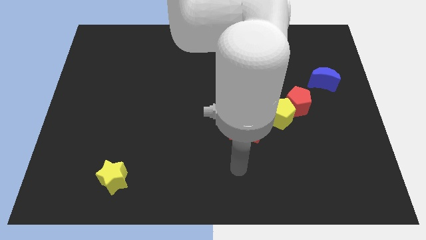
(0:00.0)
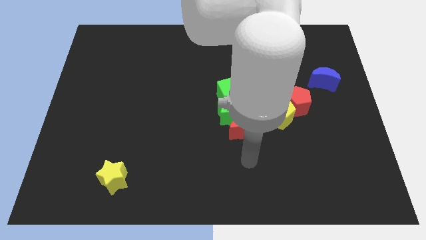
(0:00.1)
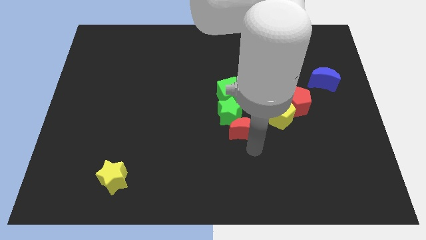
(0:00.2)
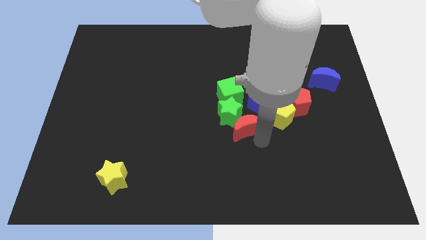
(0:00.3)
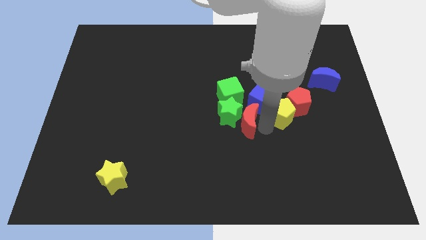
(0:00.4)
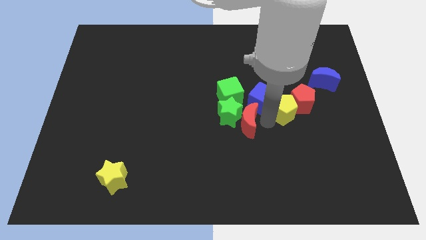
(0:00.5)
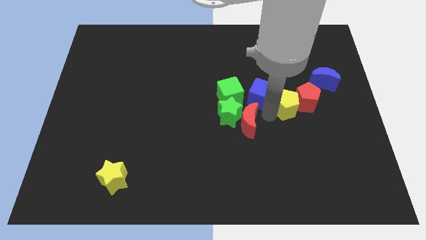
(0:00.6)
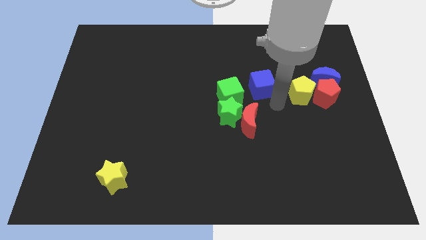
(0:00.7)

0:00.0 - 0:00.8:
move the red pentagon away from the yellow pentagon and blue cube

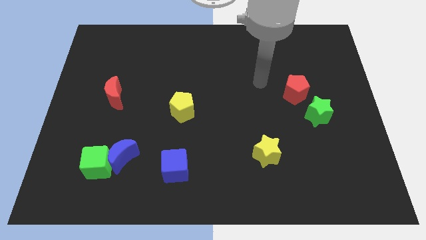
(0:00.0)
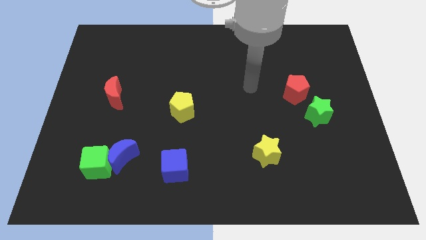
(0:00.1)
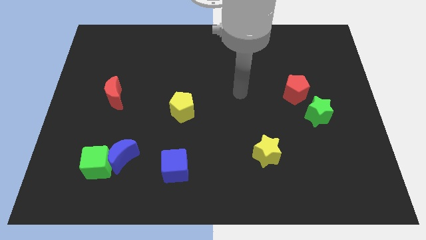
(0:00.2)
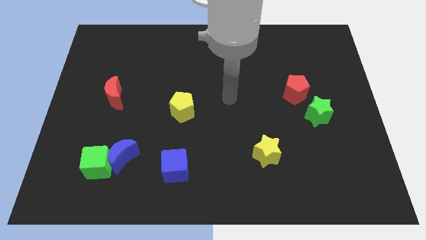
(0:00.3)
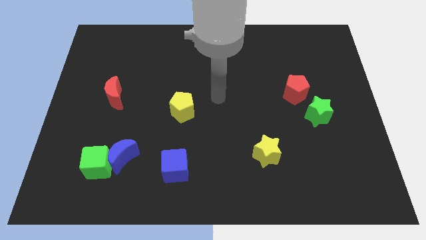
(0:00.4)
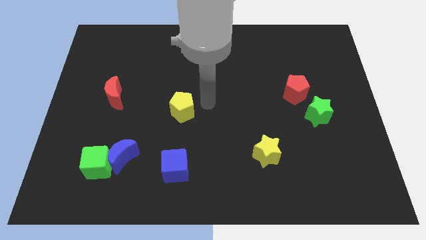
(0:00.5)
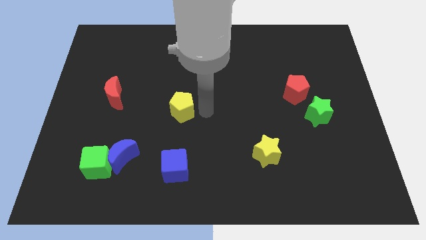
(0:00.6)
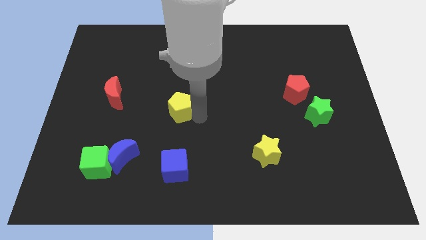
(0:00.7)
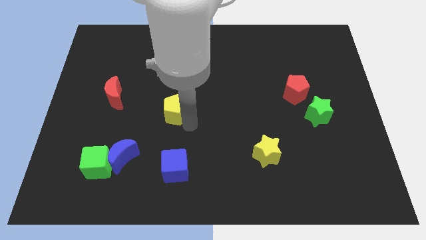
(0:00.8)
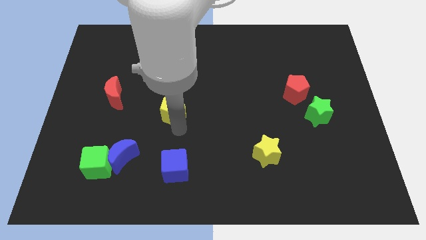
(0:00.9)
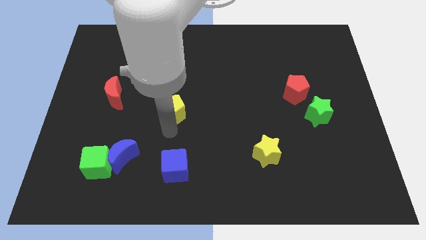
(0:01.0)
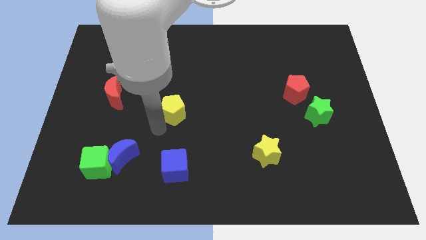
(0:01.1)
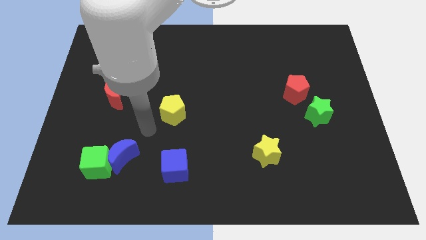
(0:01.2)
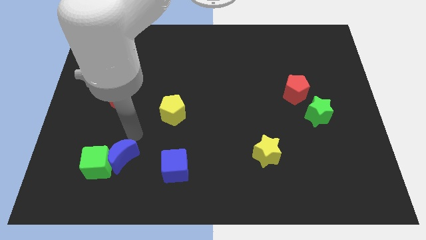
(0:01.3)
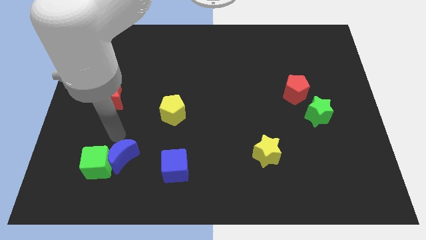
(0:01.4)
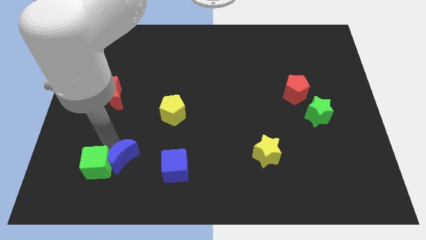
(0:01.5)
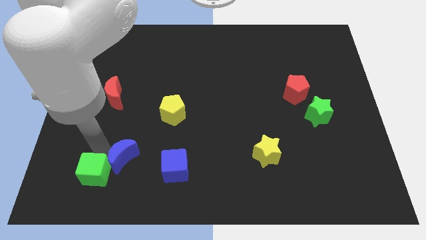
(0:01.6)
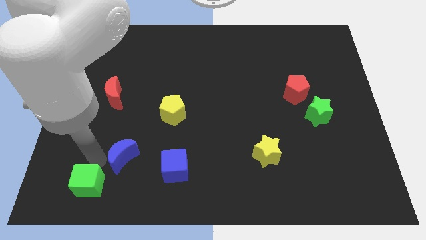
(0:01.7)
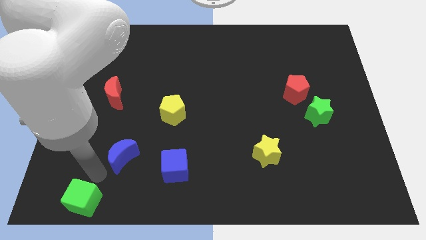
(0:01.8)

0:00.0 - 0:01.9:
separate the blue moon from the green cube

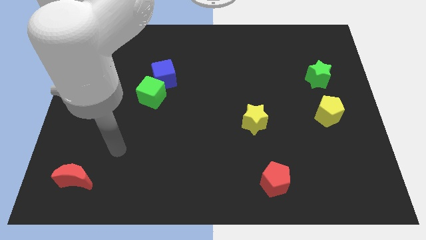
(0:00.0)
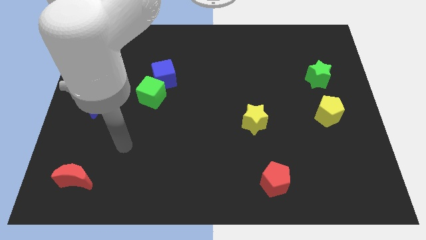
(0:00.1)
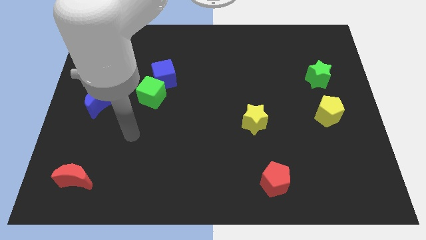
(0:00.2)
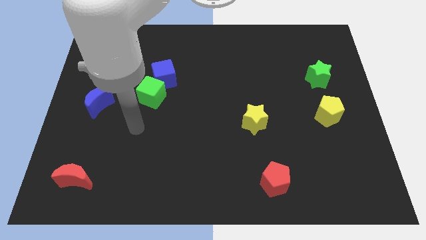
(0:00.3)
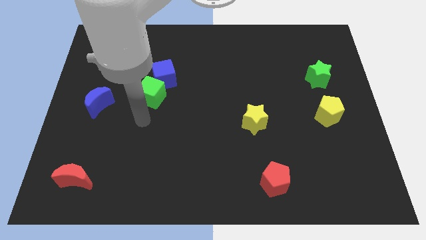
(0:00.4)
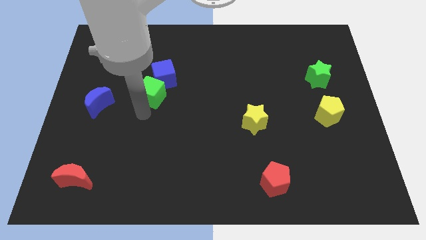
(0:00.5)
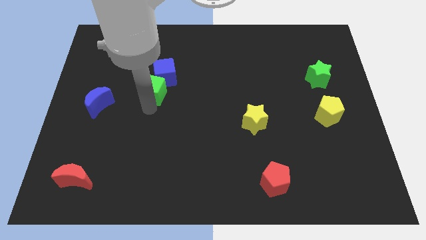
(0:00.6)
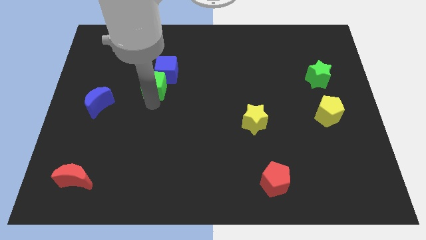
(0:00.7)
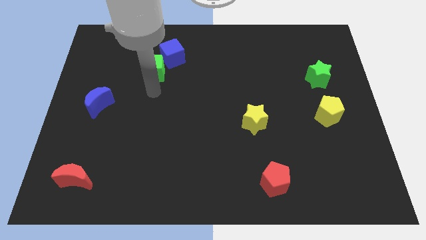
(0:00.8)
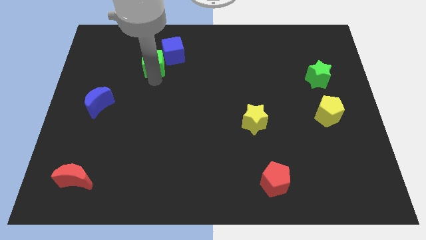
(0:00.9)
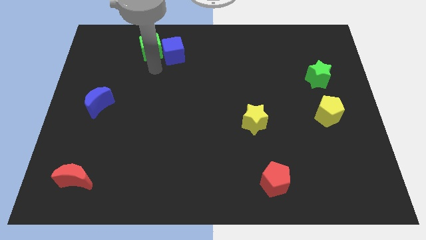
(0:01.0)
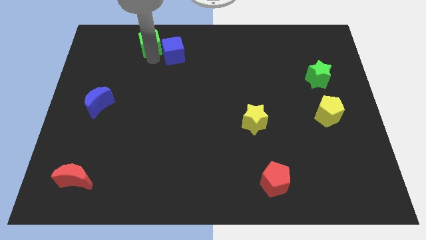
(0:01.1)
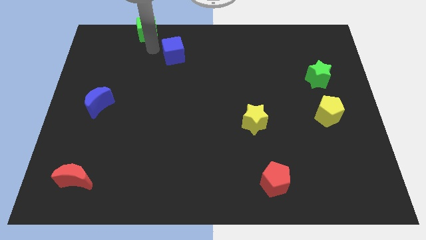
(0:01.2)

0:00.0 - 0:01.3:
pull the blue cube apart from the green cube

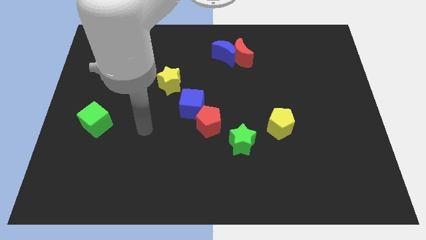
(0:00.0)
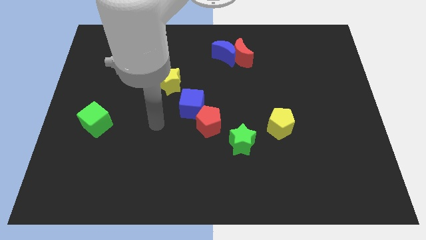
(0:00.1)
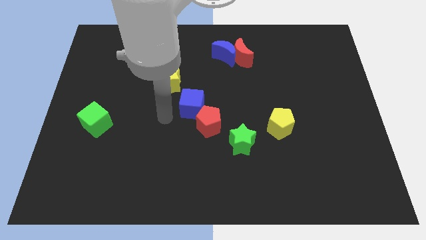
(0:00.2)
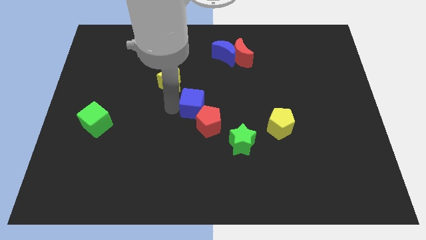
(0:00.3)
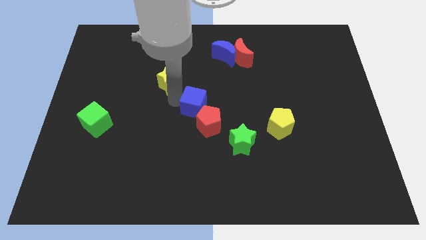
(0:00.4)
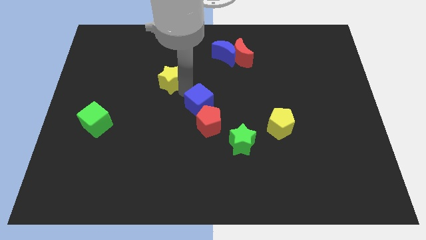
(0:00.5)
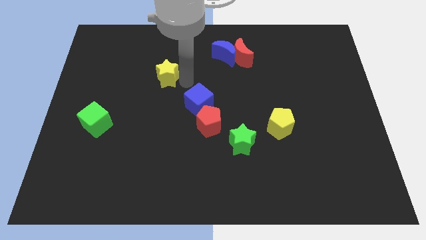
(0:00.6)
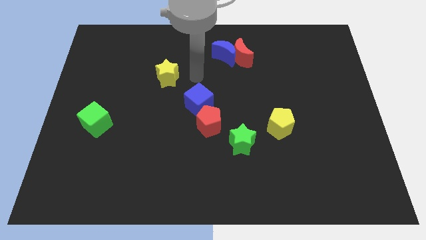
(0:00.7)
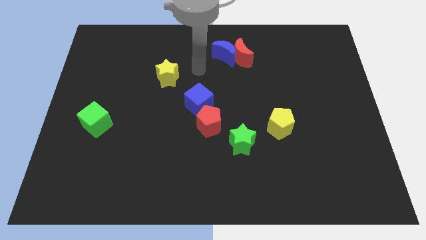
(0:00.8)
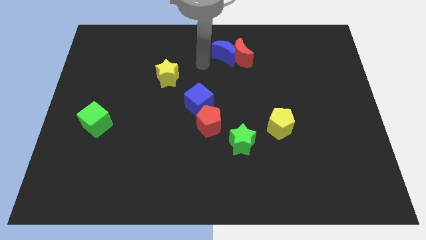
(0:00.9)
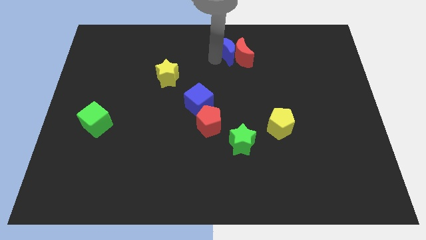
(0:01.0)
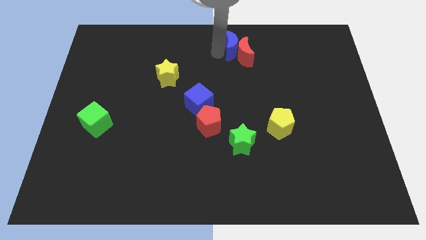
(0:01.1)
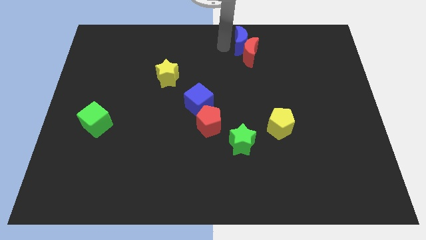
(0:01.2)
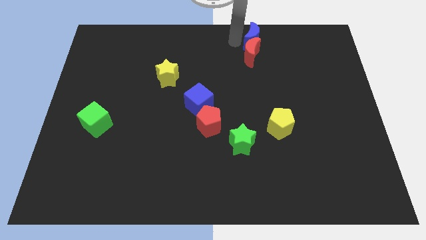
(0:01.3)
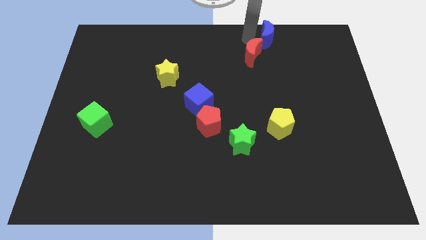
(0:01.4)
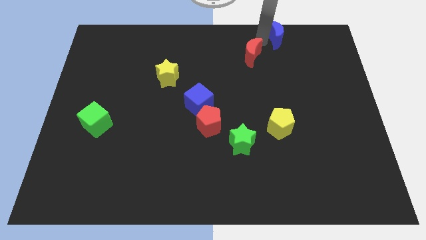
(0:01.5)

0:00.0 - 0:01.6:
separate the red moon from the blue moon

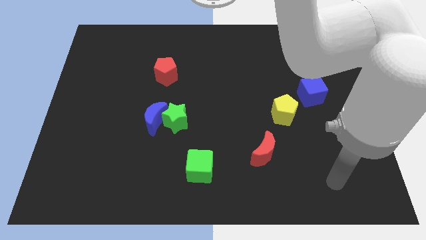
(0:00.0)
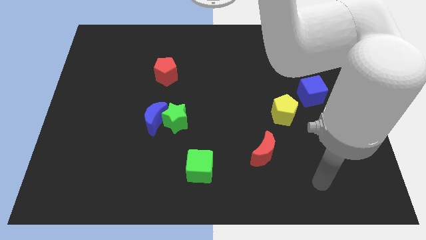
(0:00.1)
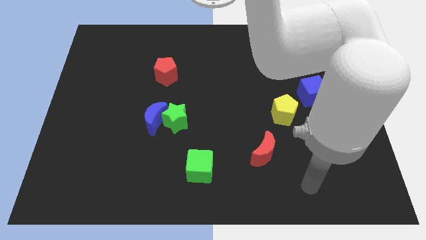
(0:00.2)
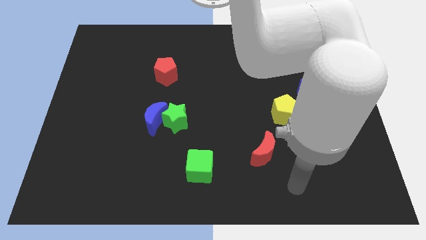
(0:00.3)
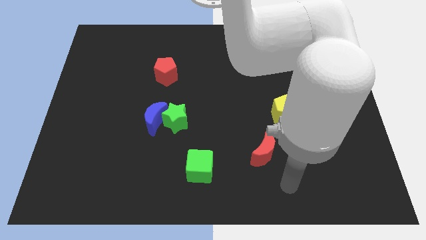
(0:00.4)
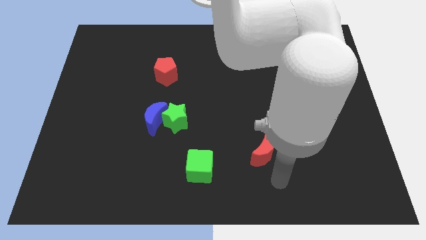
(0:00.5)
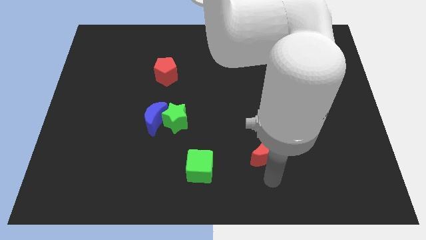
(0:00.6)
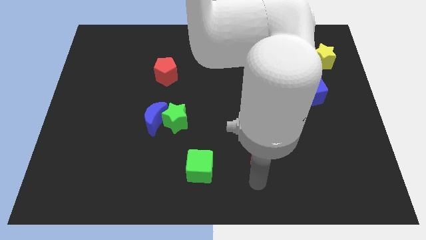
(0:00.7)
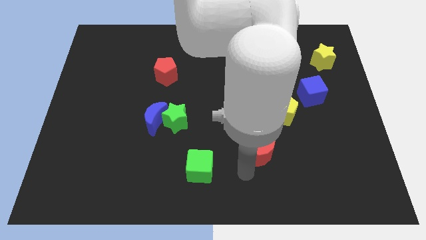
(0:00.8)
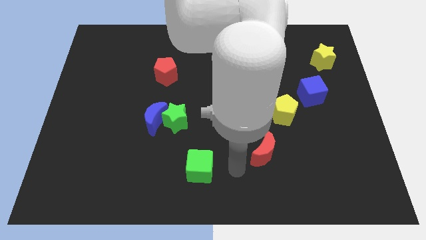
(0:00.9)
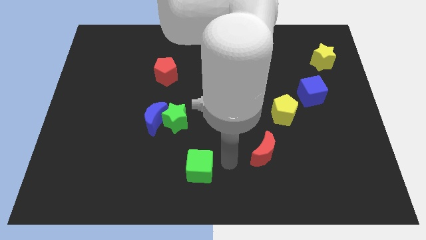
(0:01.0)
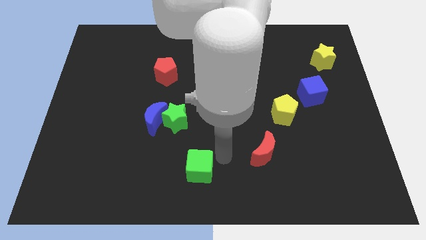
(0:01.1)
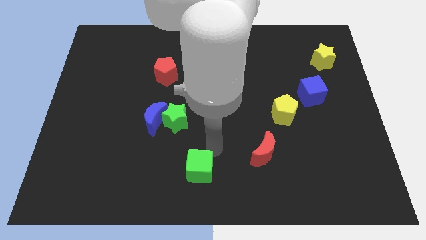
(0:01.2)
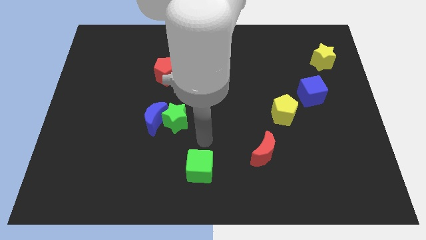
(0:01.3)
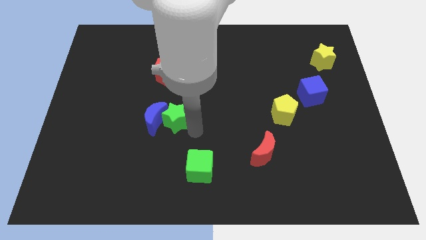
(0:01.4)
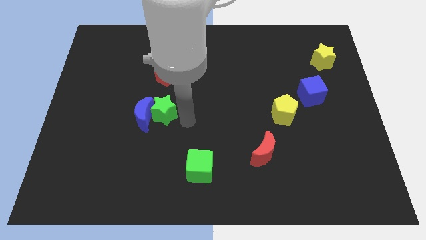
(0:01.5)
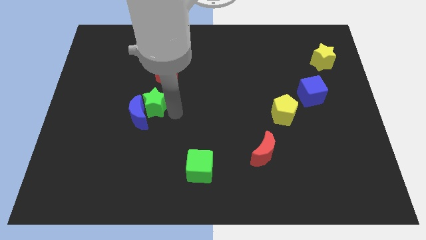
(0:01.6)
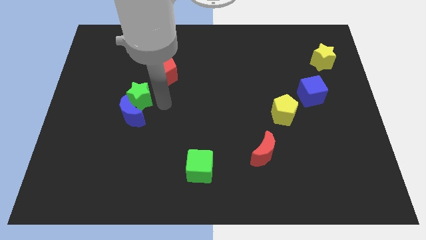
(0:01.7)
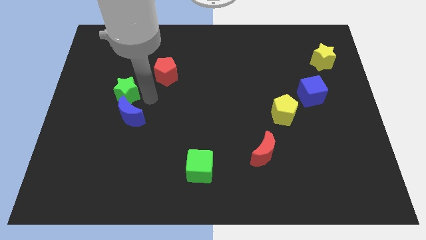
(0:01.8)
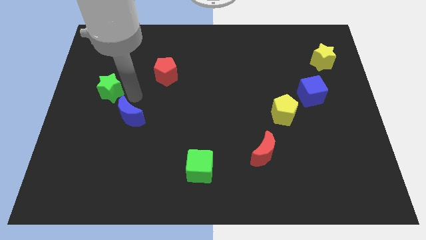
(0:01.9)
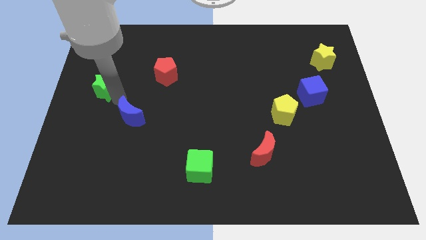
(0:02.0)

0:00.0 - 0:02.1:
separate the blue moon from the green star

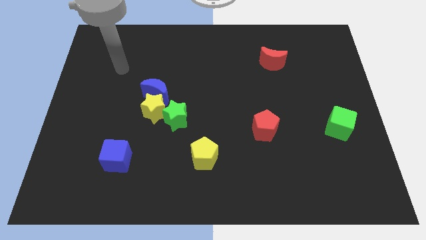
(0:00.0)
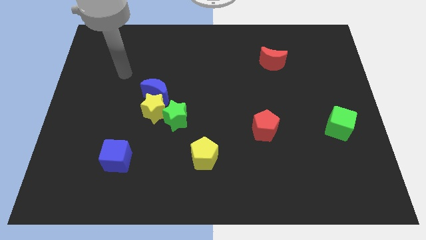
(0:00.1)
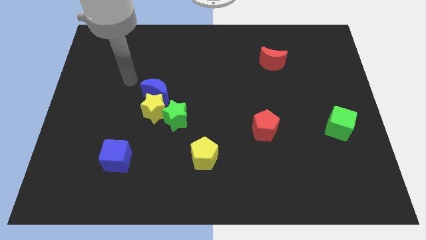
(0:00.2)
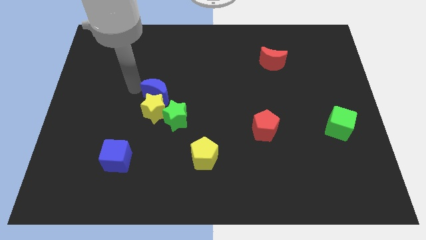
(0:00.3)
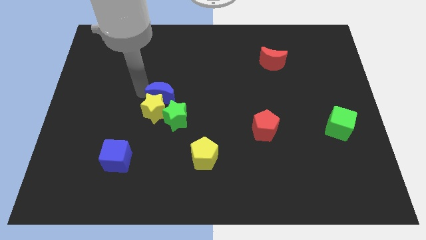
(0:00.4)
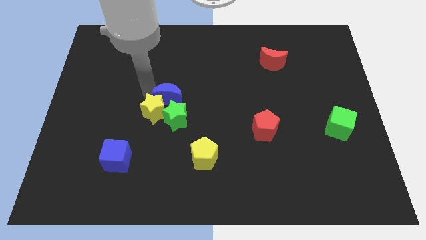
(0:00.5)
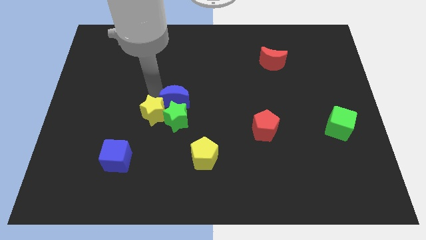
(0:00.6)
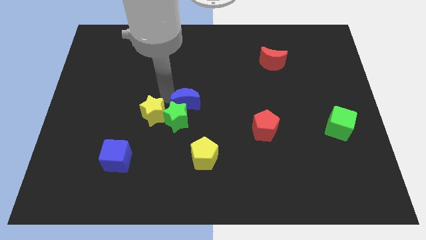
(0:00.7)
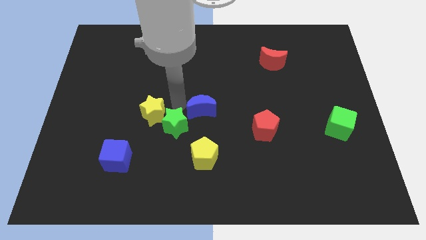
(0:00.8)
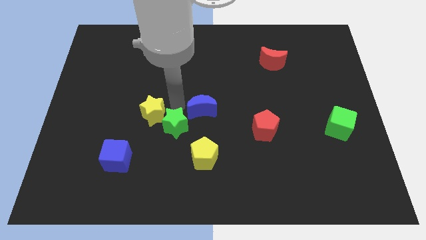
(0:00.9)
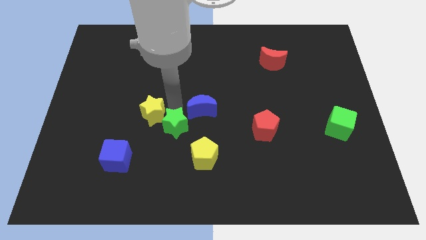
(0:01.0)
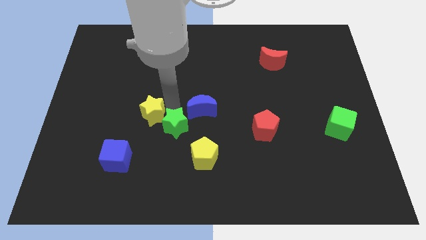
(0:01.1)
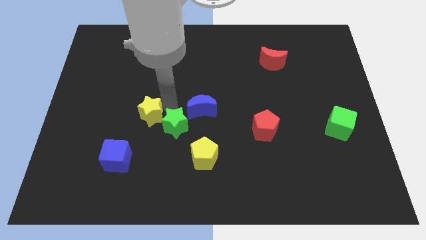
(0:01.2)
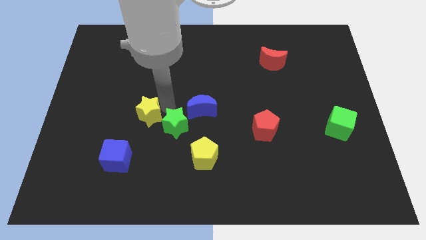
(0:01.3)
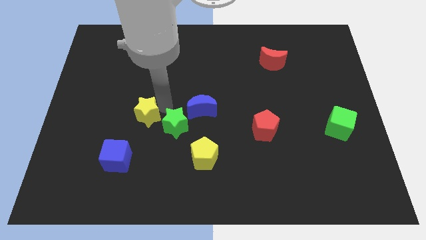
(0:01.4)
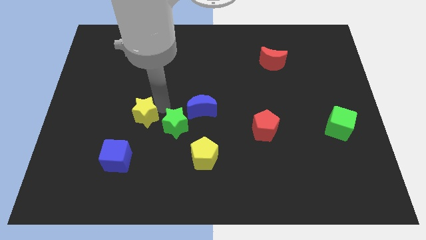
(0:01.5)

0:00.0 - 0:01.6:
separate the yellow star from the blue moon and green star
